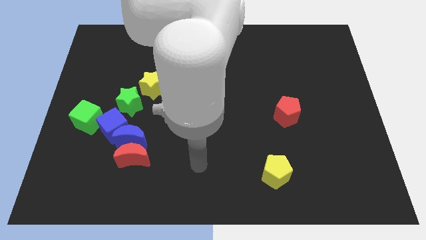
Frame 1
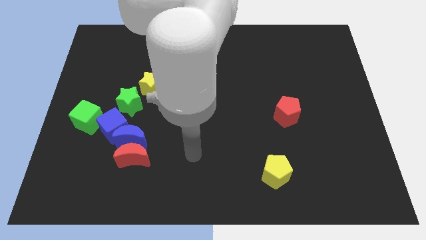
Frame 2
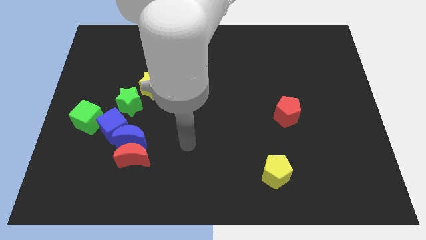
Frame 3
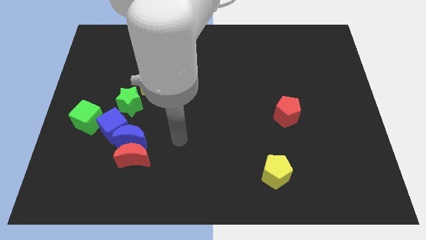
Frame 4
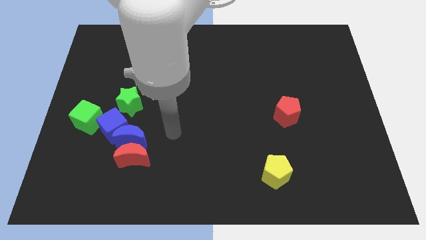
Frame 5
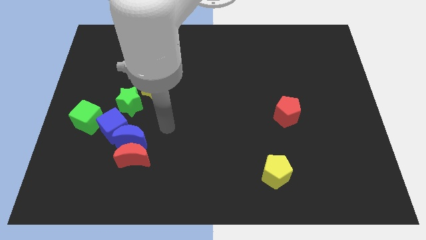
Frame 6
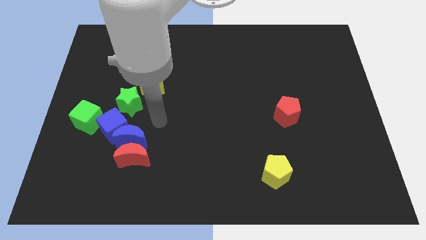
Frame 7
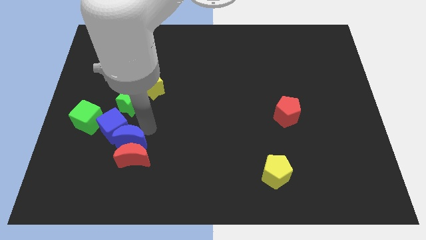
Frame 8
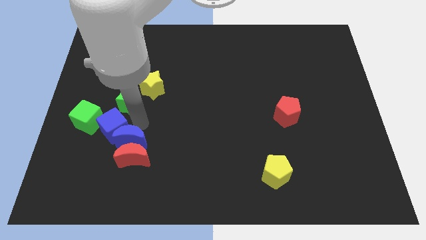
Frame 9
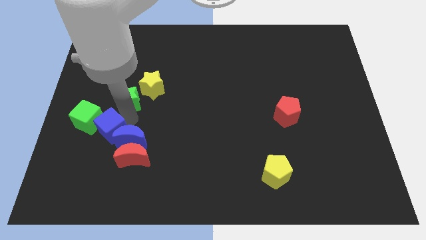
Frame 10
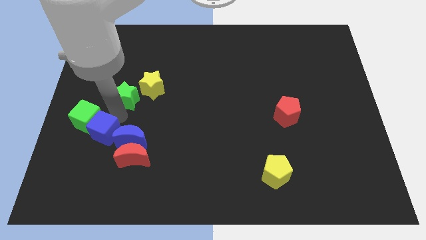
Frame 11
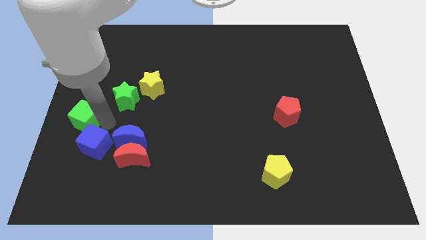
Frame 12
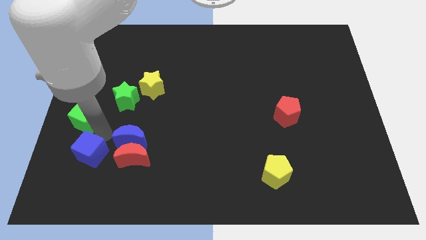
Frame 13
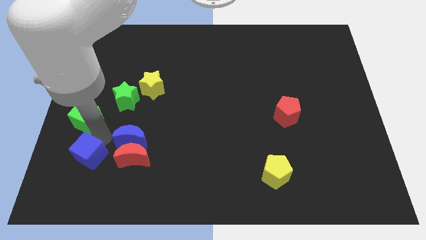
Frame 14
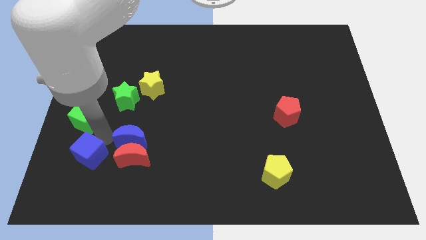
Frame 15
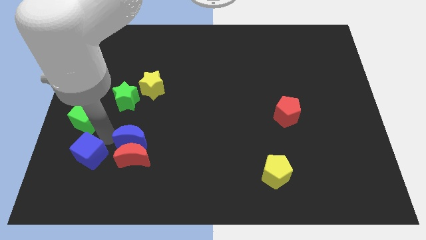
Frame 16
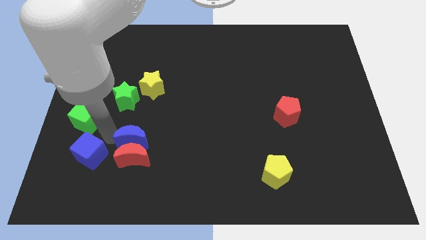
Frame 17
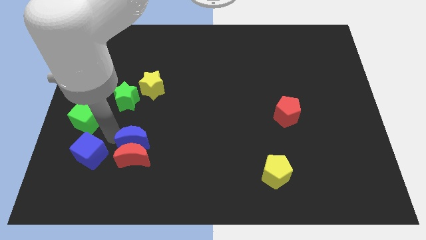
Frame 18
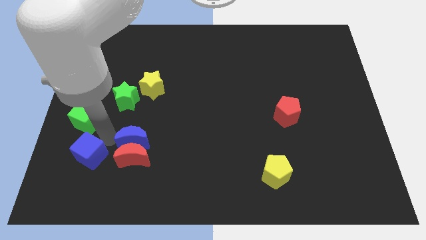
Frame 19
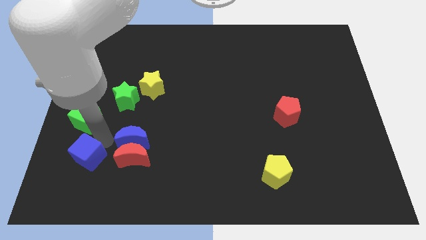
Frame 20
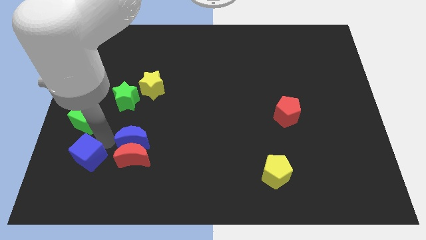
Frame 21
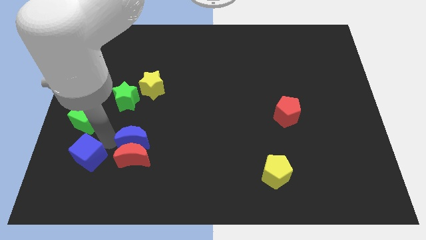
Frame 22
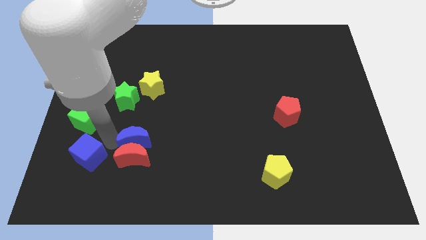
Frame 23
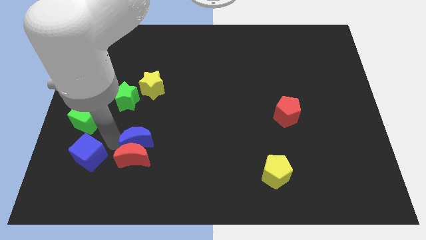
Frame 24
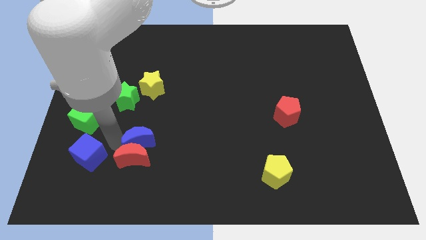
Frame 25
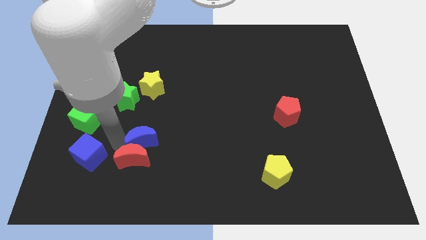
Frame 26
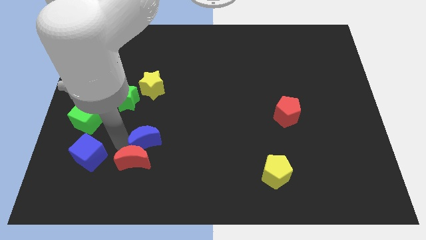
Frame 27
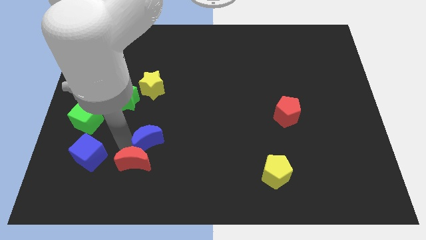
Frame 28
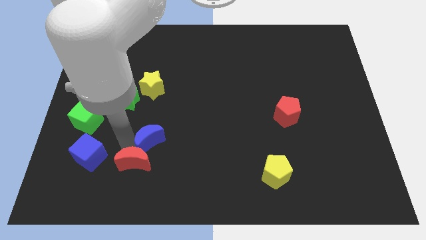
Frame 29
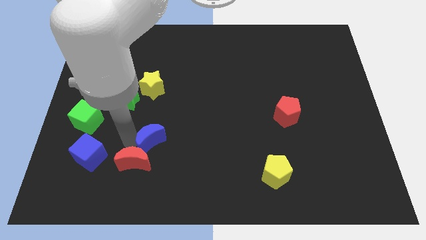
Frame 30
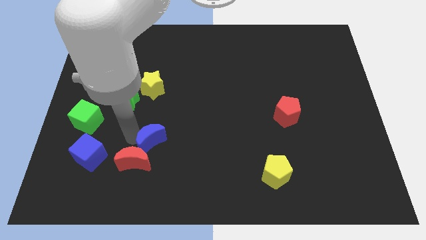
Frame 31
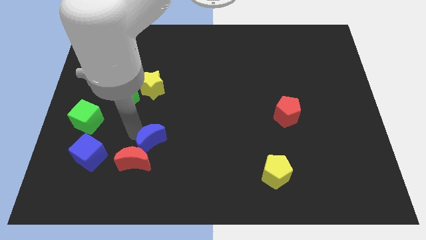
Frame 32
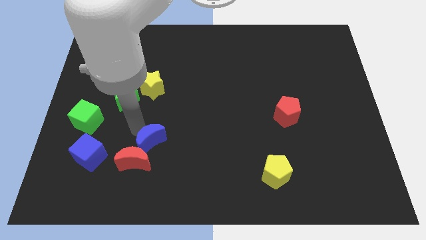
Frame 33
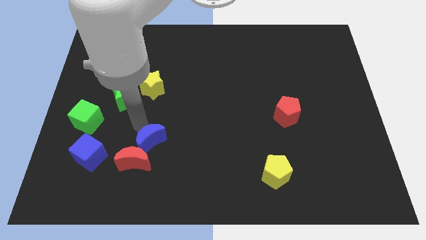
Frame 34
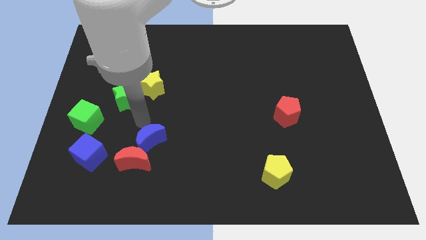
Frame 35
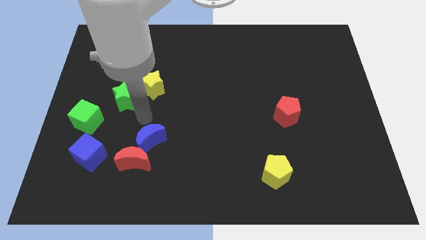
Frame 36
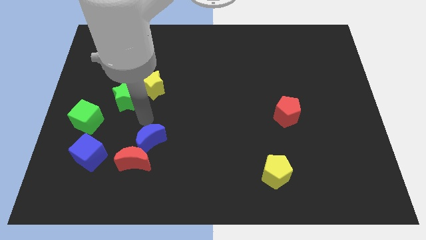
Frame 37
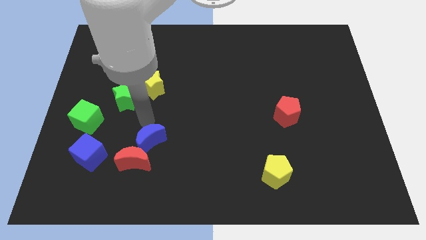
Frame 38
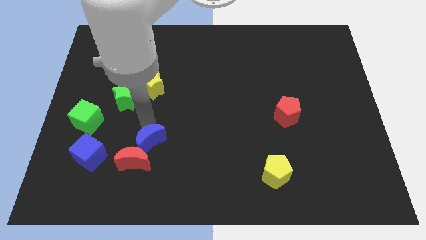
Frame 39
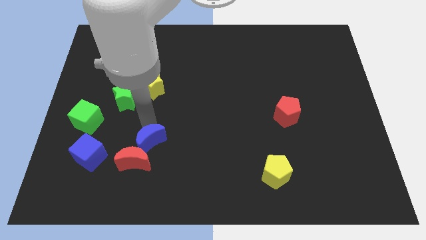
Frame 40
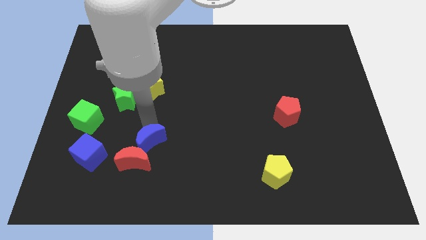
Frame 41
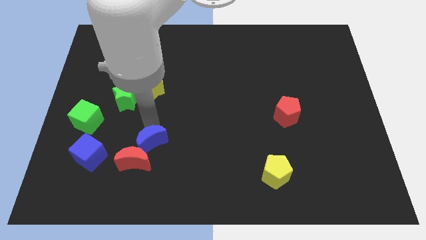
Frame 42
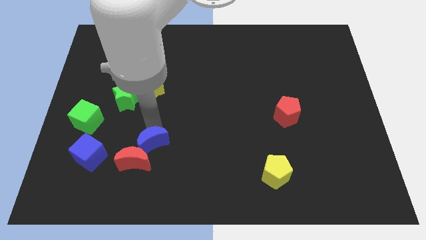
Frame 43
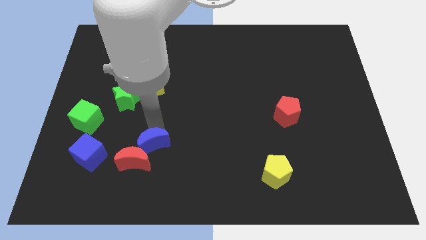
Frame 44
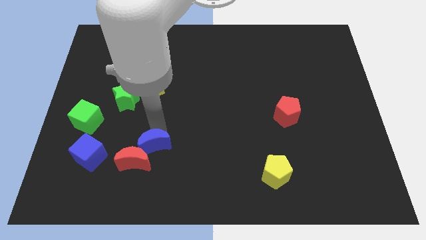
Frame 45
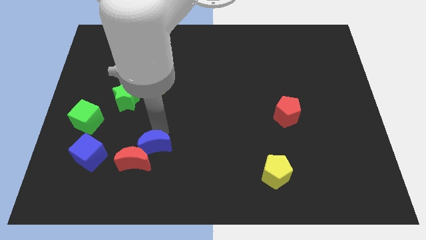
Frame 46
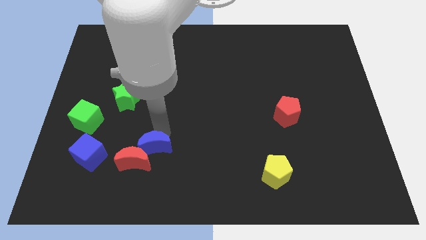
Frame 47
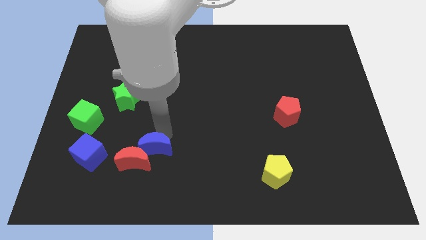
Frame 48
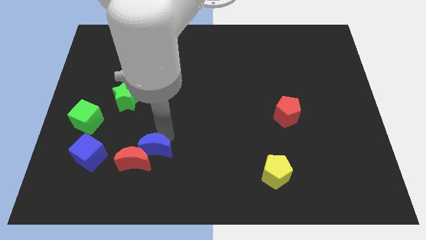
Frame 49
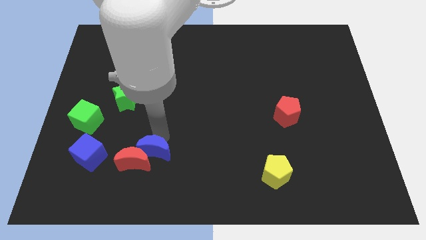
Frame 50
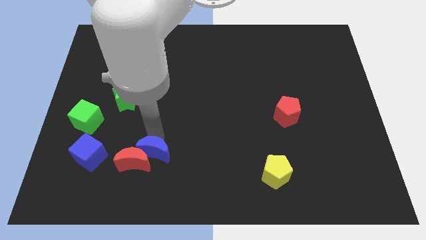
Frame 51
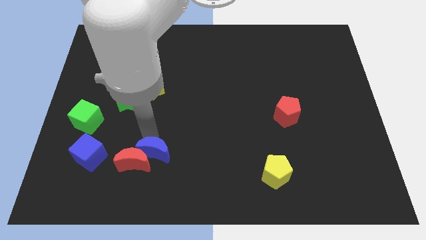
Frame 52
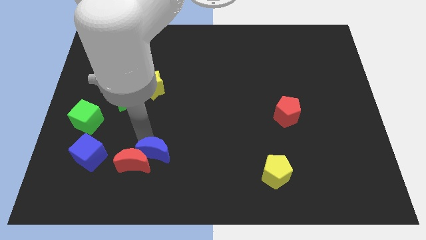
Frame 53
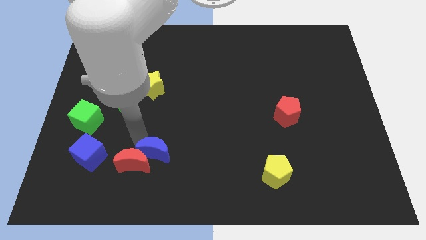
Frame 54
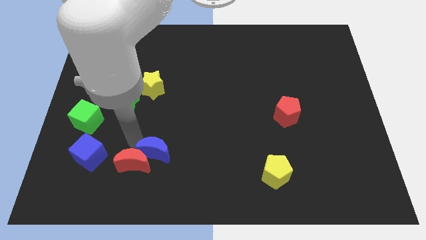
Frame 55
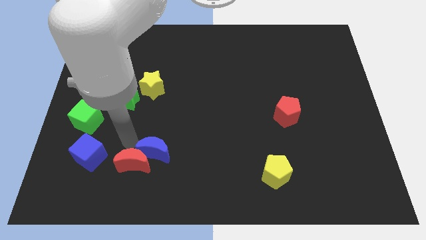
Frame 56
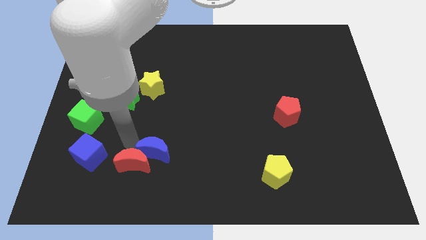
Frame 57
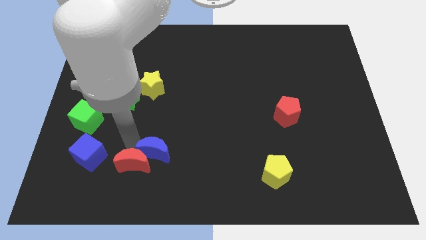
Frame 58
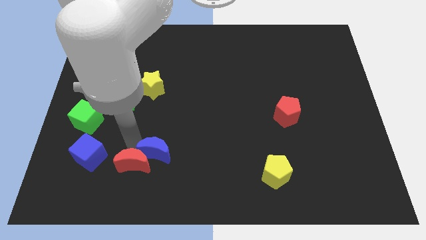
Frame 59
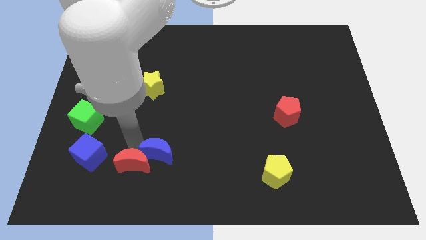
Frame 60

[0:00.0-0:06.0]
pull the blue moon apart from the red moon, blue cube, and green star

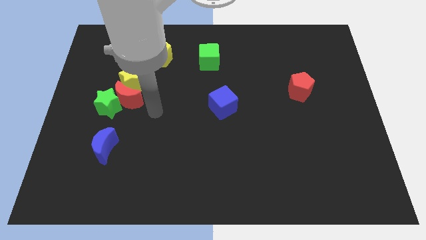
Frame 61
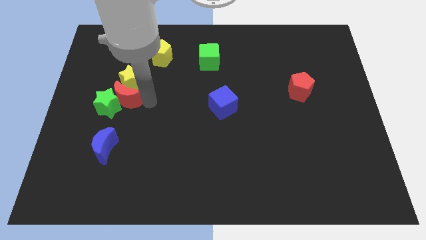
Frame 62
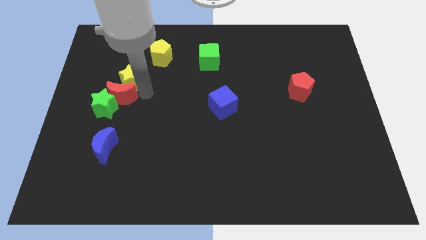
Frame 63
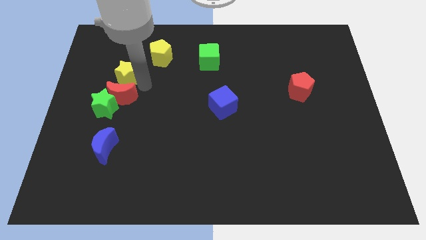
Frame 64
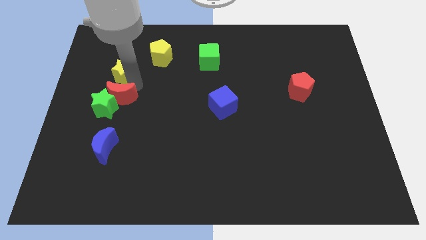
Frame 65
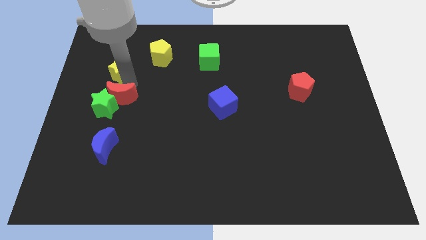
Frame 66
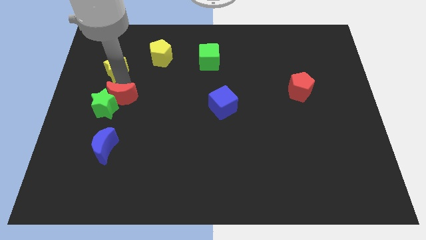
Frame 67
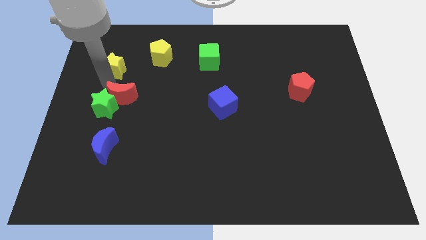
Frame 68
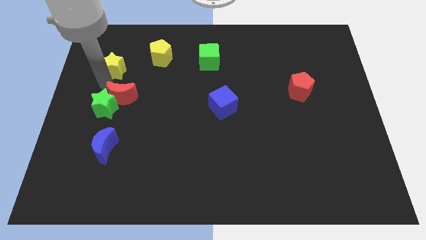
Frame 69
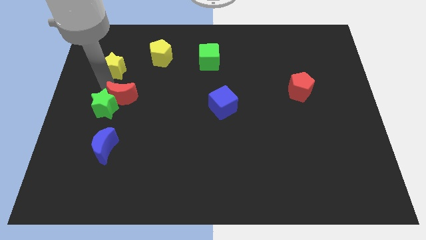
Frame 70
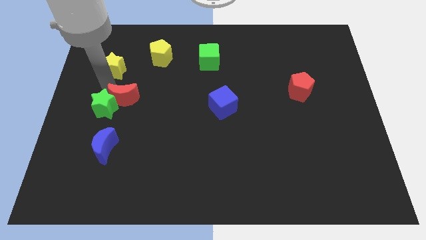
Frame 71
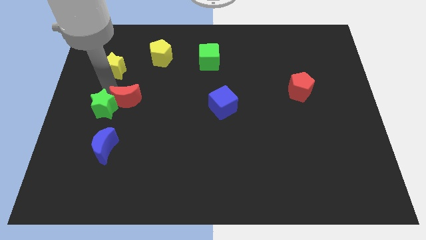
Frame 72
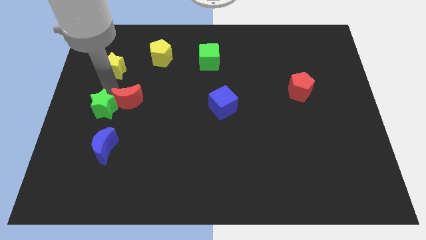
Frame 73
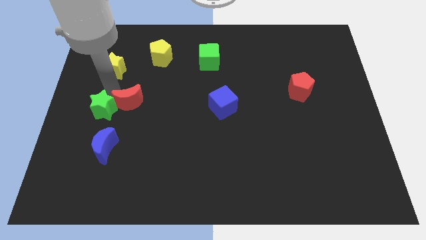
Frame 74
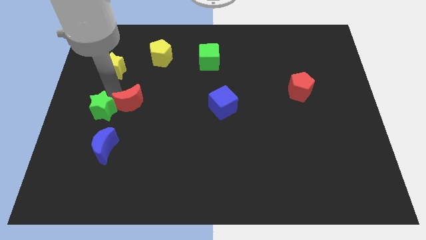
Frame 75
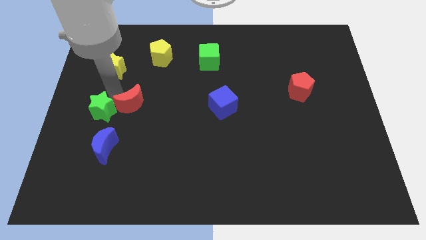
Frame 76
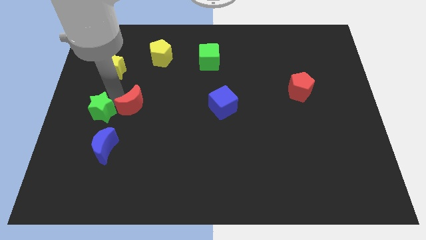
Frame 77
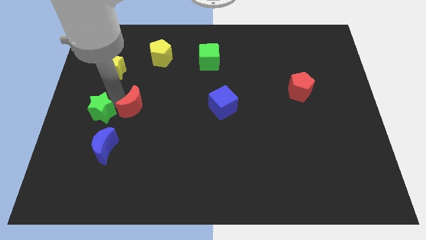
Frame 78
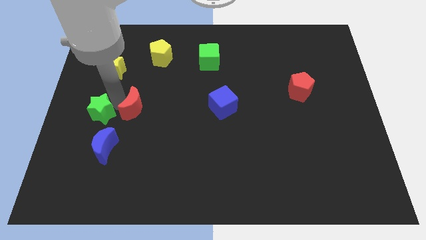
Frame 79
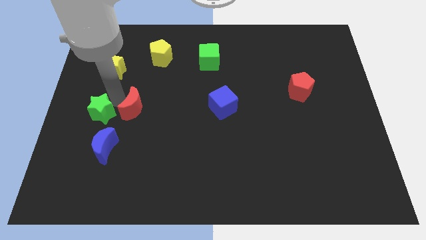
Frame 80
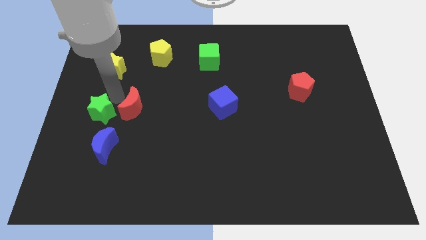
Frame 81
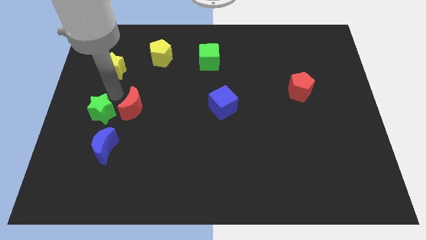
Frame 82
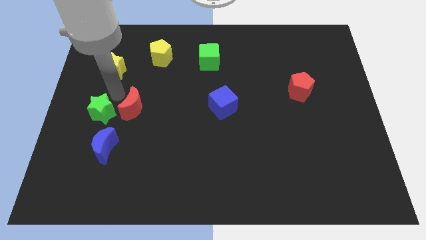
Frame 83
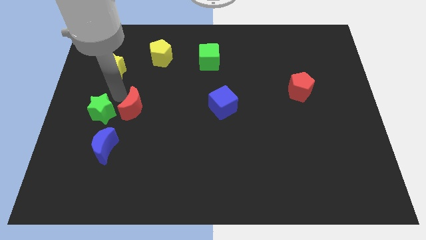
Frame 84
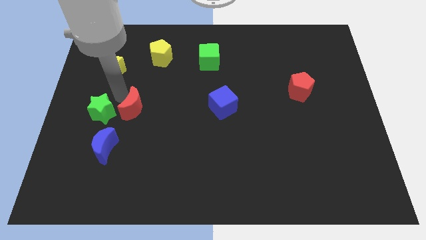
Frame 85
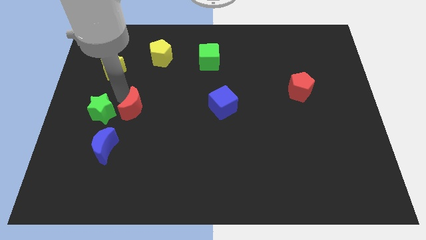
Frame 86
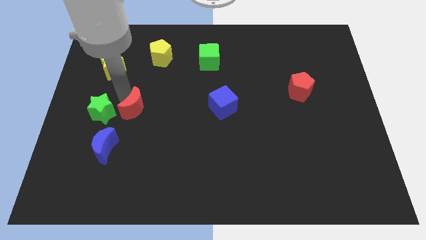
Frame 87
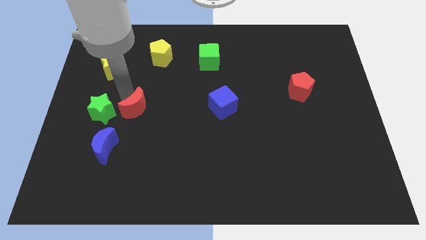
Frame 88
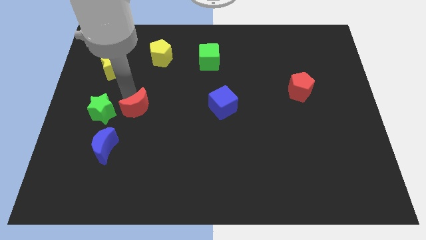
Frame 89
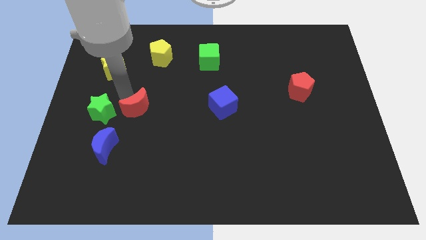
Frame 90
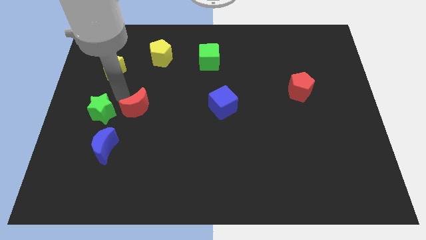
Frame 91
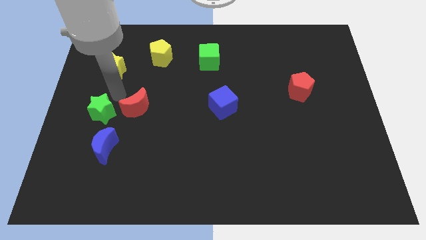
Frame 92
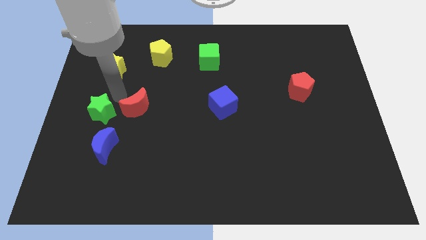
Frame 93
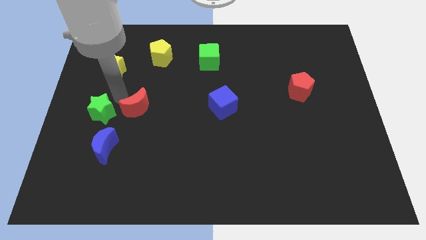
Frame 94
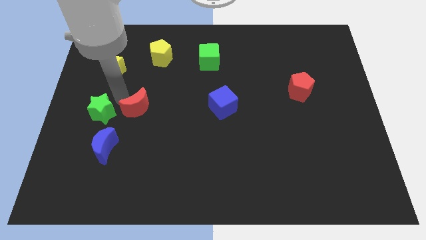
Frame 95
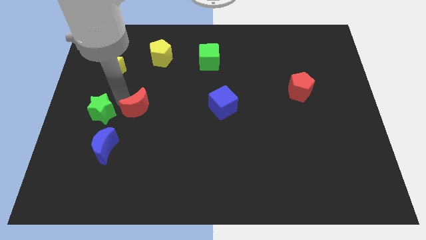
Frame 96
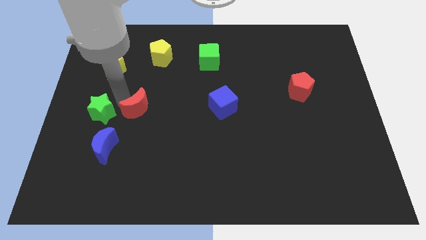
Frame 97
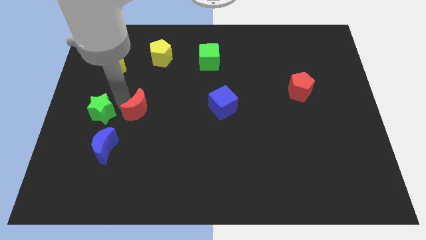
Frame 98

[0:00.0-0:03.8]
move the red moon away from the green star and yellow star
